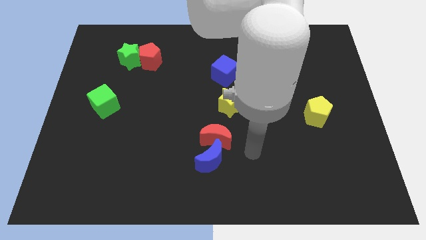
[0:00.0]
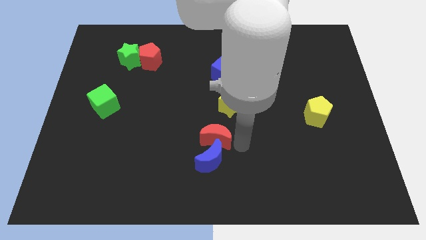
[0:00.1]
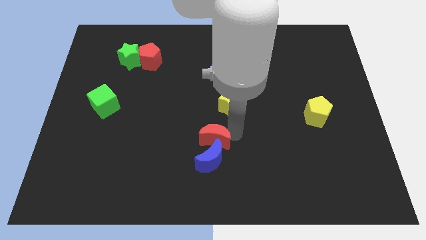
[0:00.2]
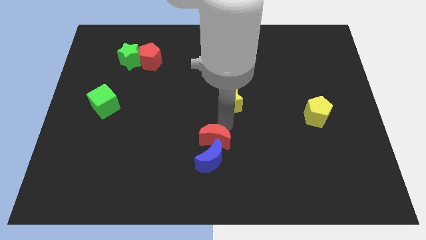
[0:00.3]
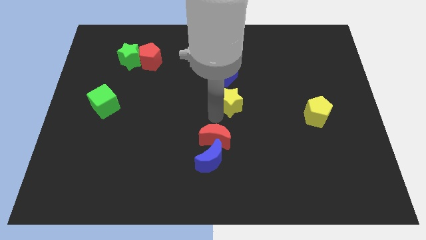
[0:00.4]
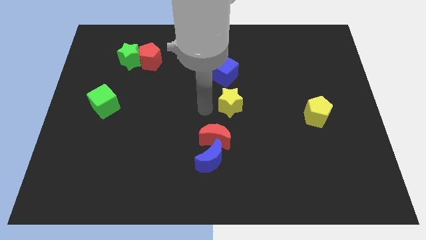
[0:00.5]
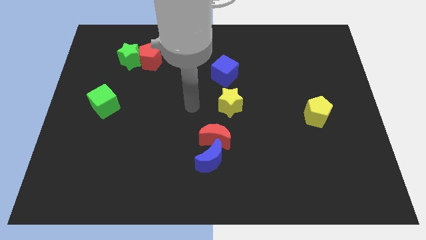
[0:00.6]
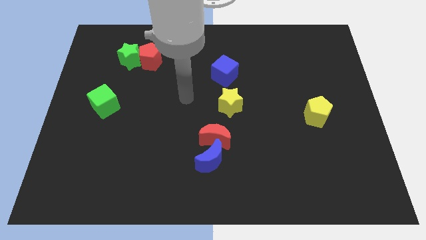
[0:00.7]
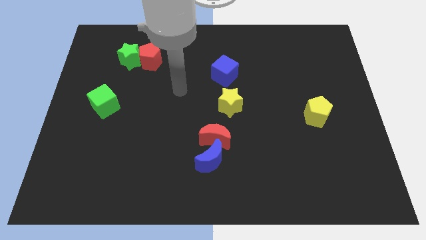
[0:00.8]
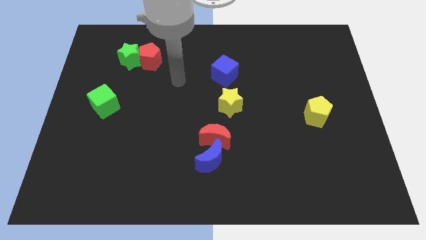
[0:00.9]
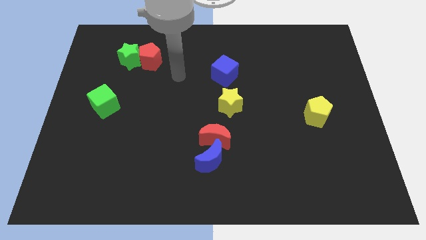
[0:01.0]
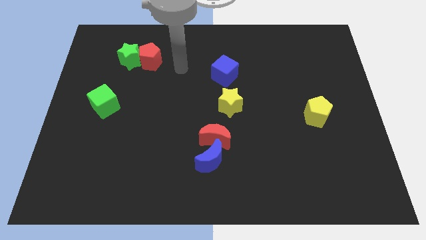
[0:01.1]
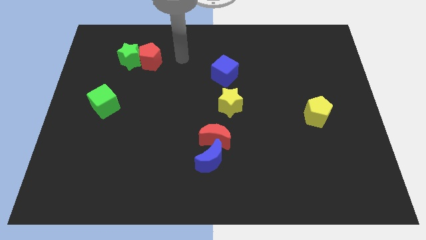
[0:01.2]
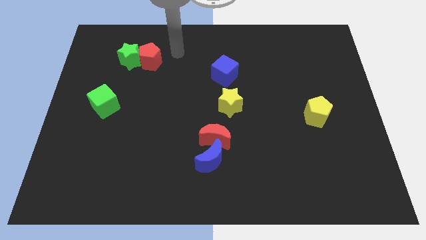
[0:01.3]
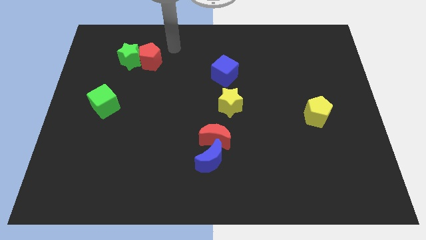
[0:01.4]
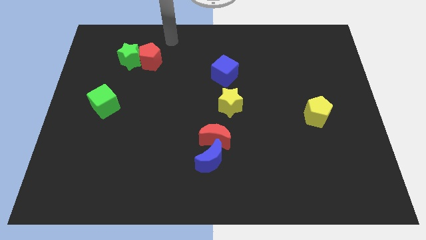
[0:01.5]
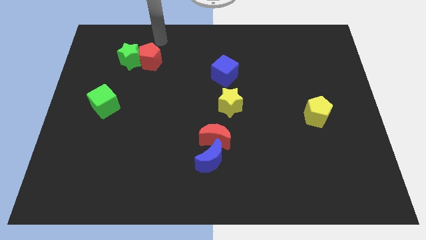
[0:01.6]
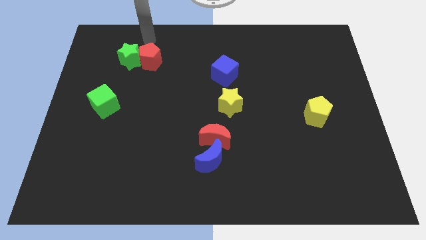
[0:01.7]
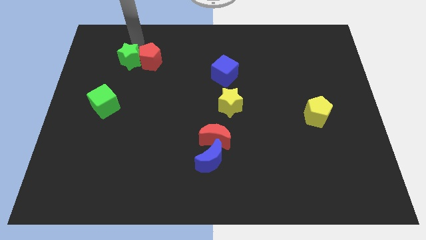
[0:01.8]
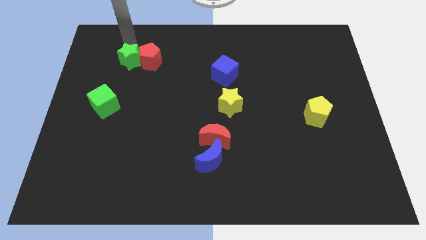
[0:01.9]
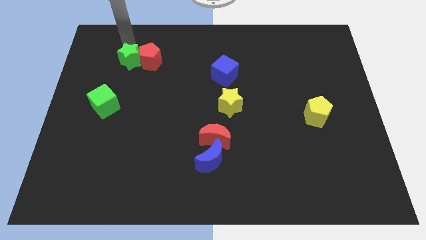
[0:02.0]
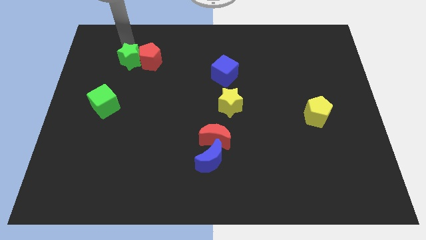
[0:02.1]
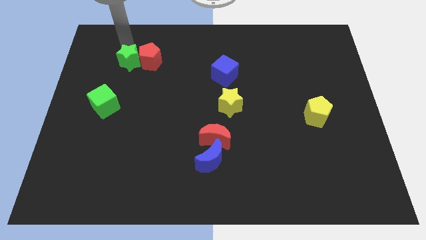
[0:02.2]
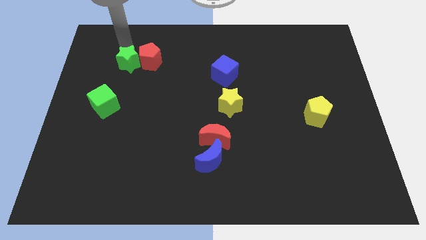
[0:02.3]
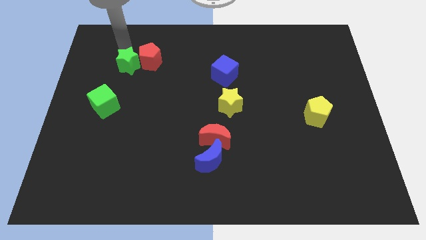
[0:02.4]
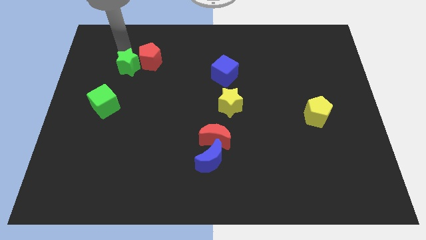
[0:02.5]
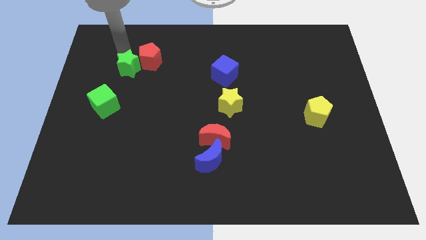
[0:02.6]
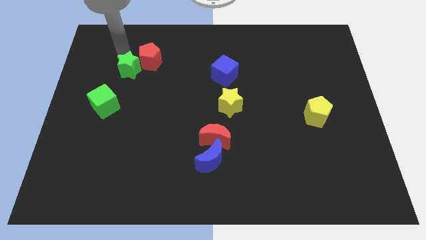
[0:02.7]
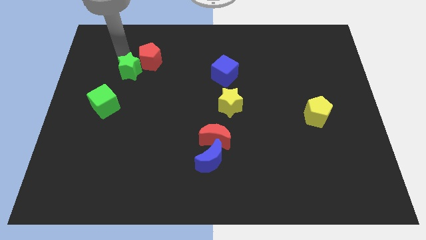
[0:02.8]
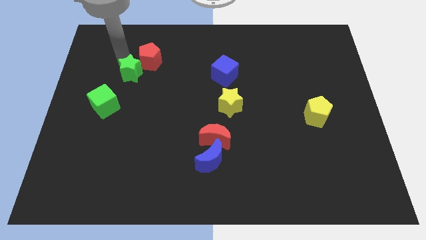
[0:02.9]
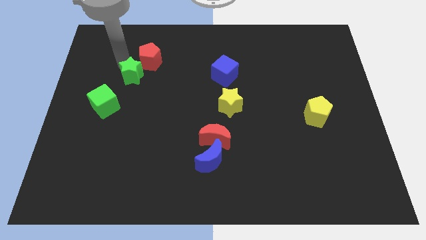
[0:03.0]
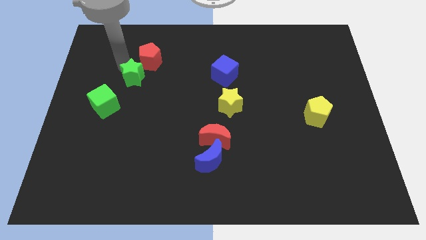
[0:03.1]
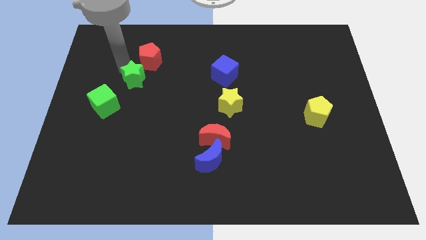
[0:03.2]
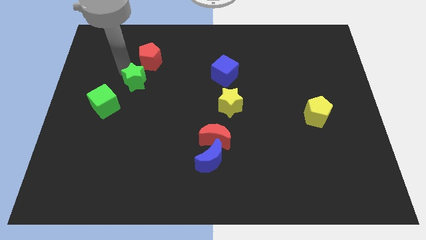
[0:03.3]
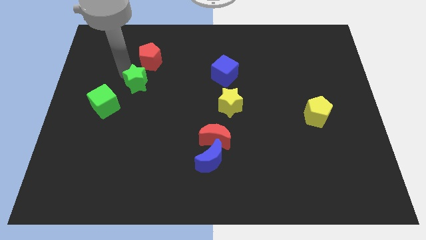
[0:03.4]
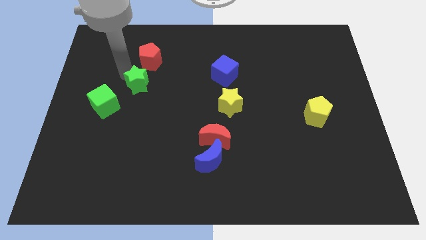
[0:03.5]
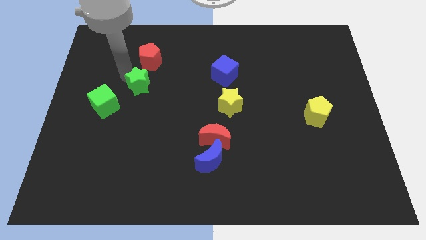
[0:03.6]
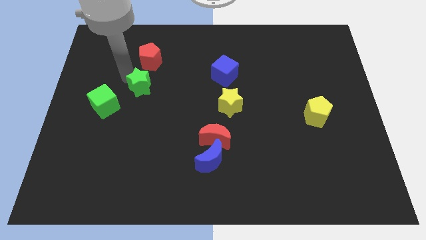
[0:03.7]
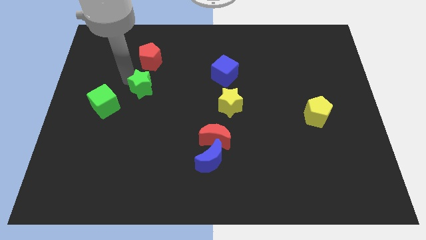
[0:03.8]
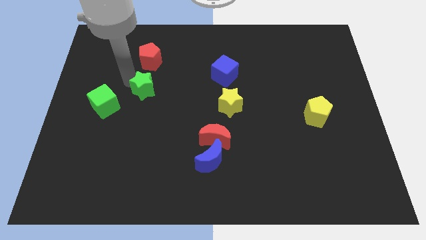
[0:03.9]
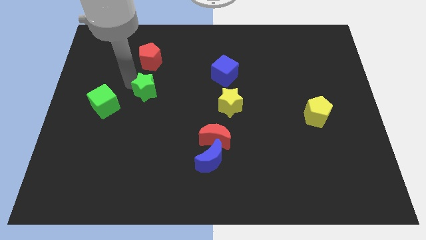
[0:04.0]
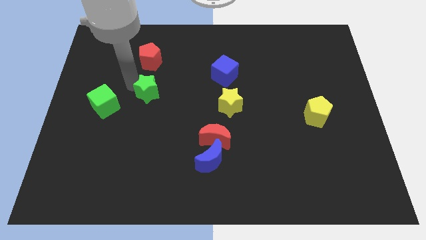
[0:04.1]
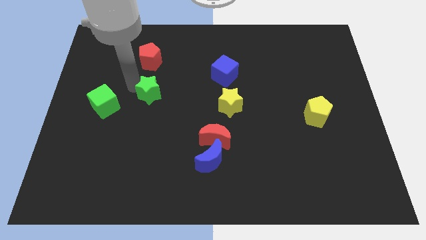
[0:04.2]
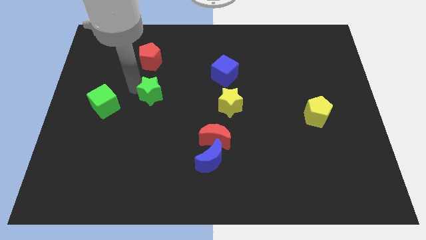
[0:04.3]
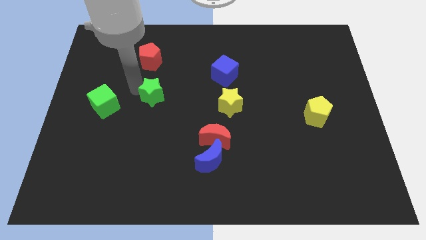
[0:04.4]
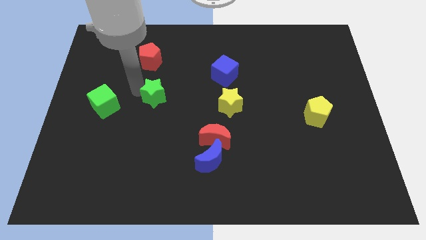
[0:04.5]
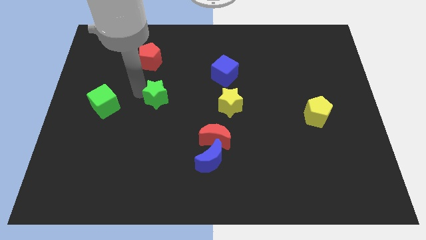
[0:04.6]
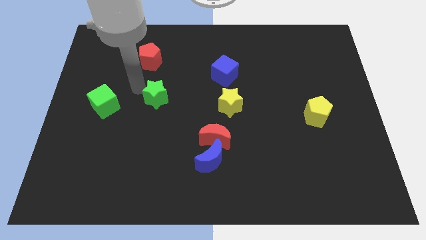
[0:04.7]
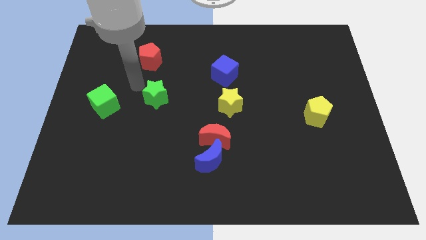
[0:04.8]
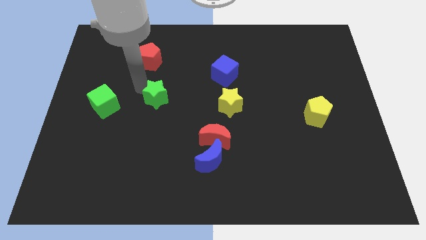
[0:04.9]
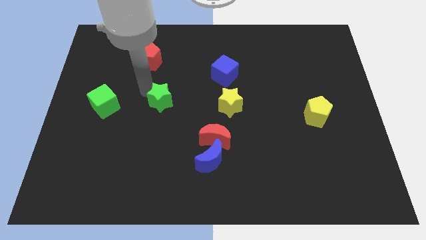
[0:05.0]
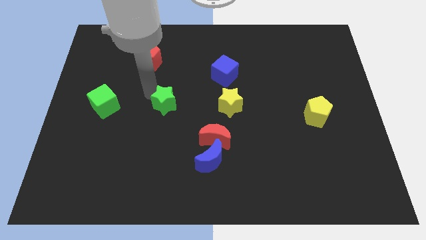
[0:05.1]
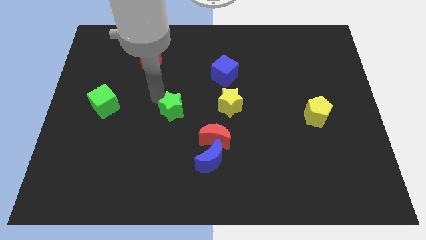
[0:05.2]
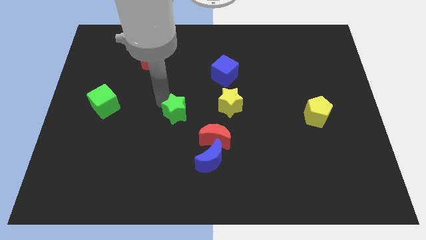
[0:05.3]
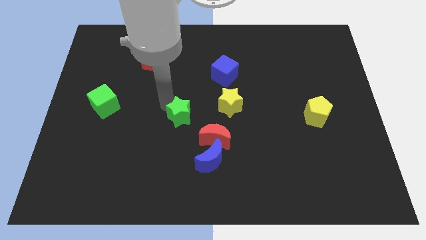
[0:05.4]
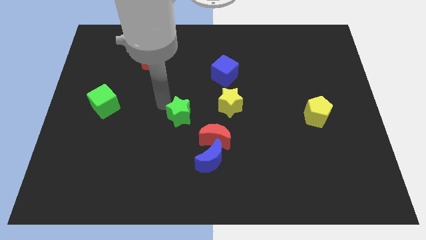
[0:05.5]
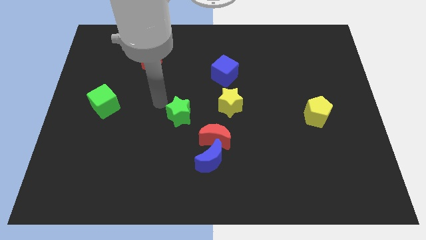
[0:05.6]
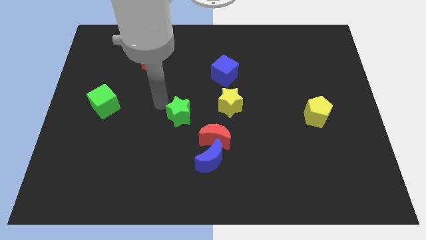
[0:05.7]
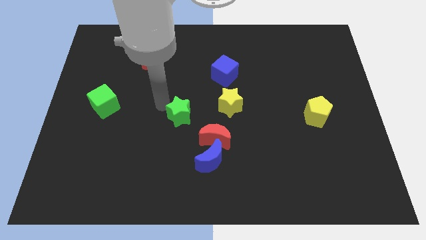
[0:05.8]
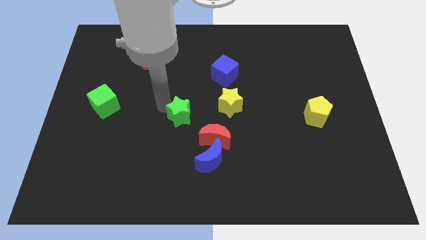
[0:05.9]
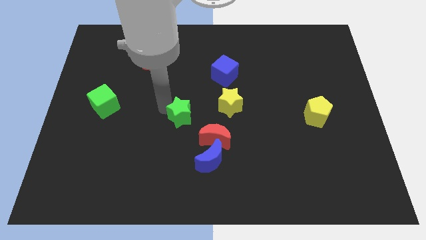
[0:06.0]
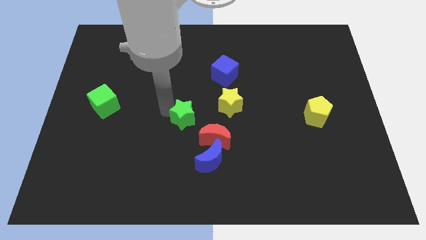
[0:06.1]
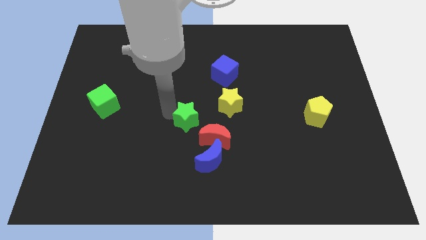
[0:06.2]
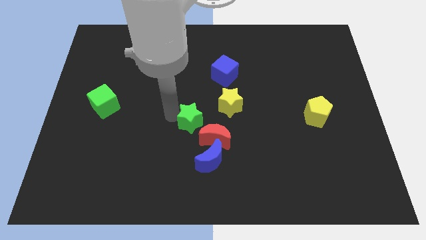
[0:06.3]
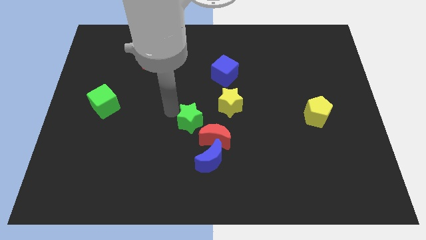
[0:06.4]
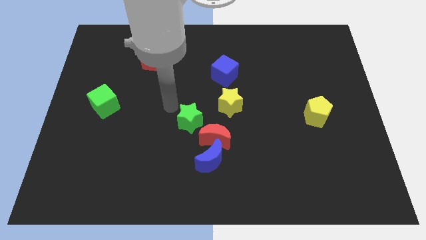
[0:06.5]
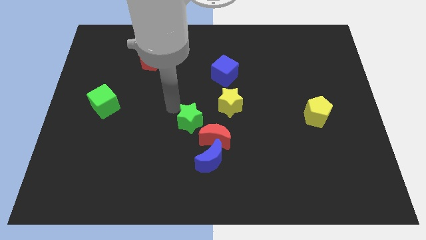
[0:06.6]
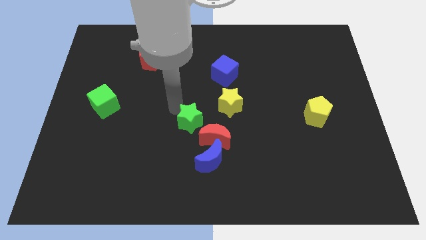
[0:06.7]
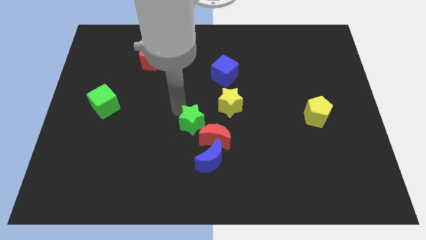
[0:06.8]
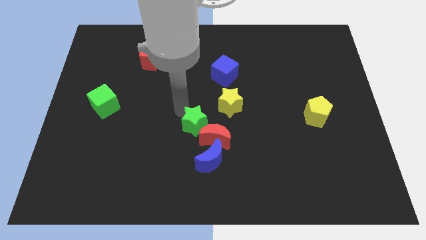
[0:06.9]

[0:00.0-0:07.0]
push the green star towards the red moon
